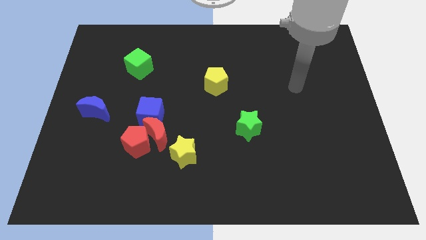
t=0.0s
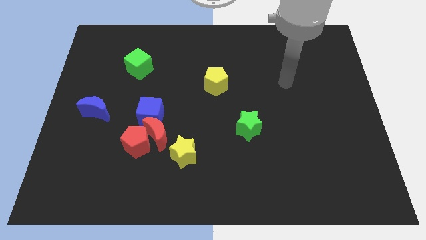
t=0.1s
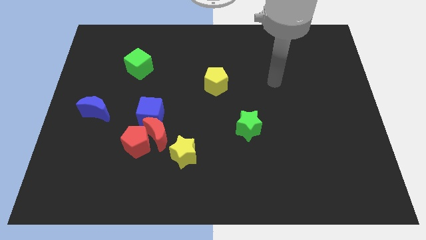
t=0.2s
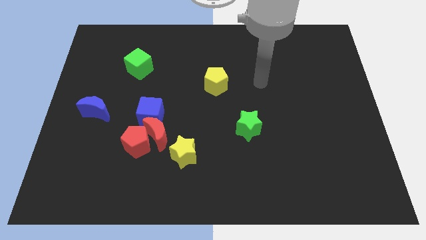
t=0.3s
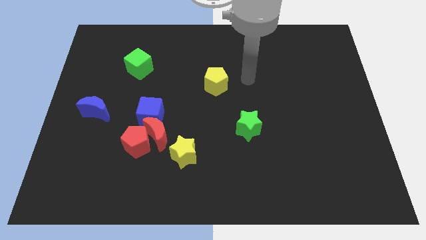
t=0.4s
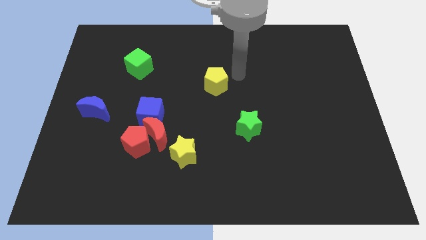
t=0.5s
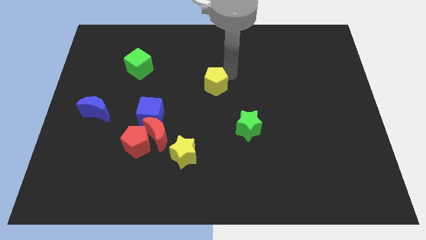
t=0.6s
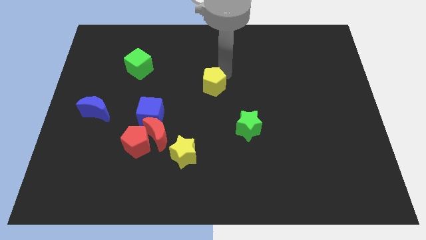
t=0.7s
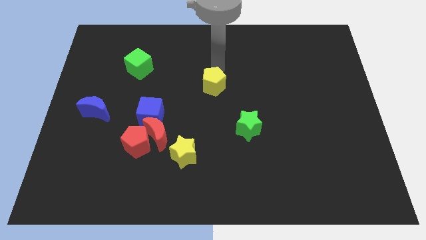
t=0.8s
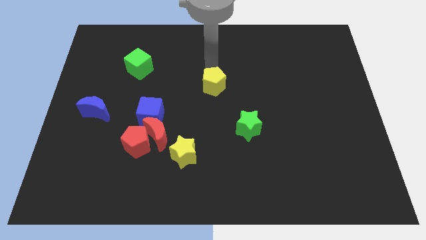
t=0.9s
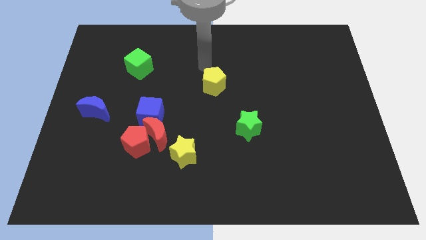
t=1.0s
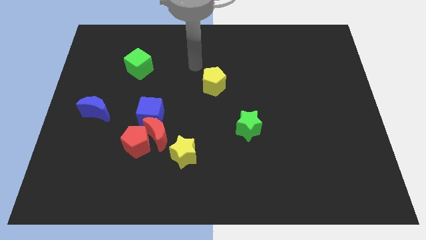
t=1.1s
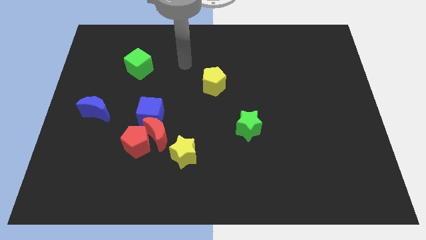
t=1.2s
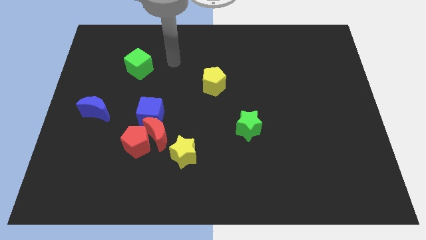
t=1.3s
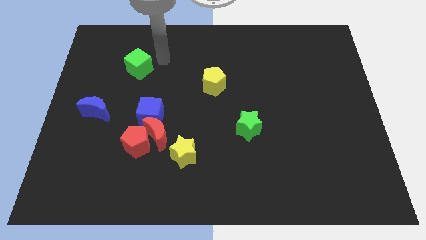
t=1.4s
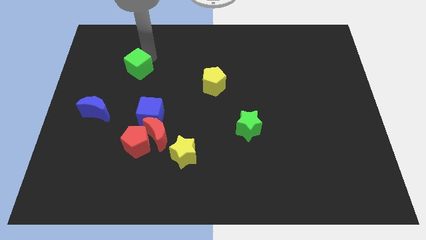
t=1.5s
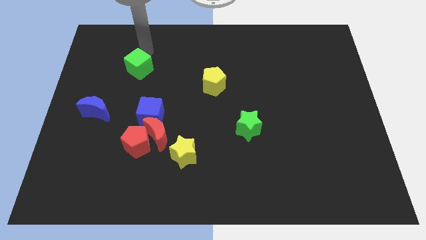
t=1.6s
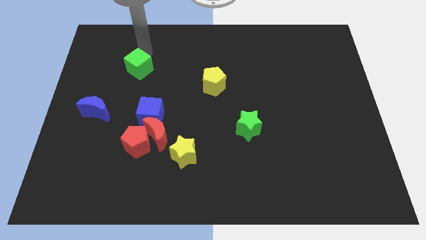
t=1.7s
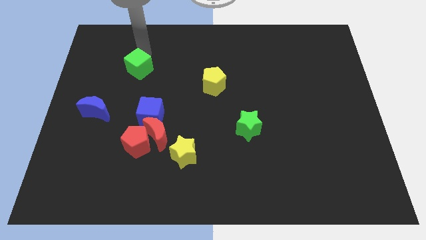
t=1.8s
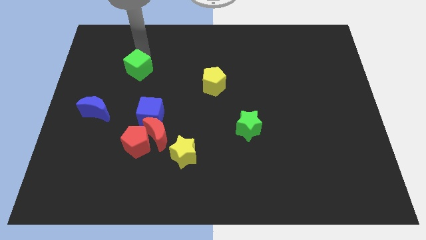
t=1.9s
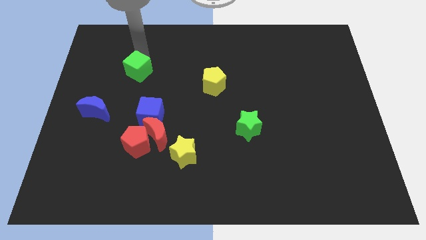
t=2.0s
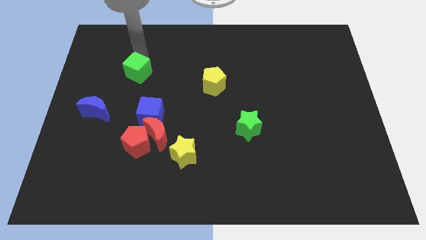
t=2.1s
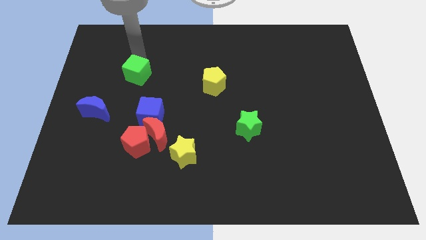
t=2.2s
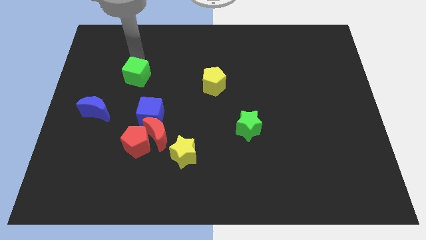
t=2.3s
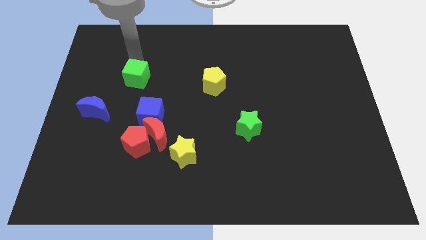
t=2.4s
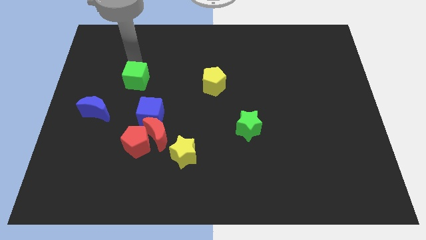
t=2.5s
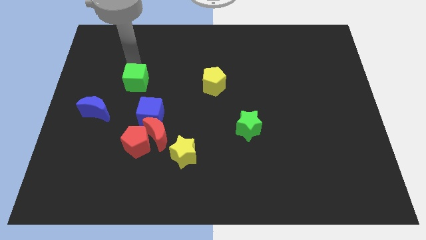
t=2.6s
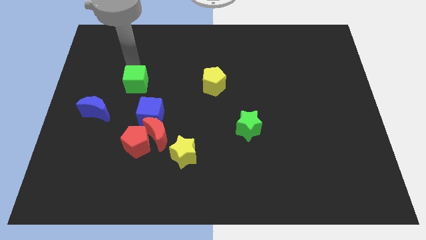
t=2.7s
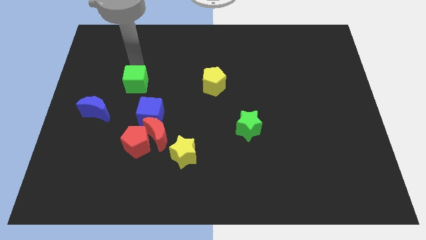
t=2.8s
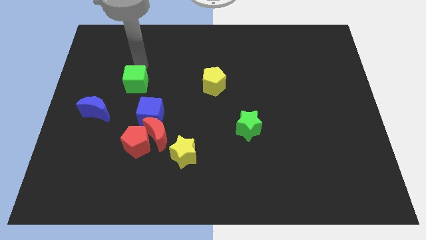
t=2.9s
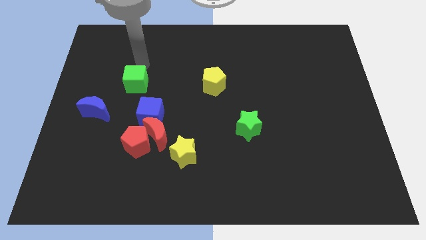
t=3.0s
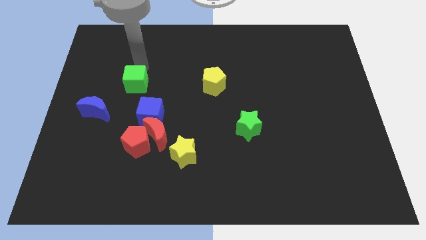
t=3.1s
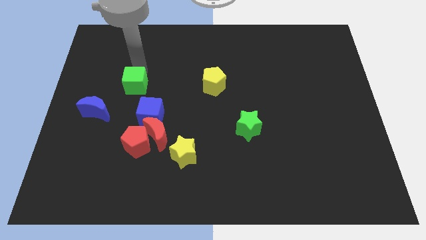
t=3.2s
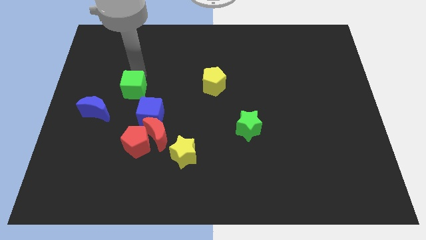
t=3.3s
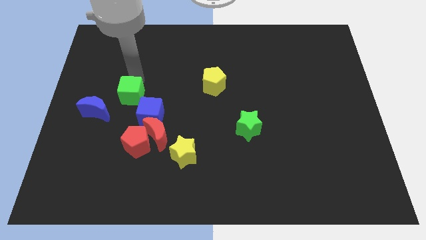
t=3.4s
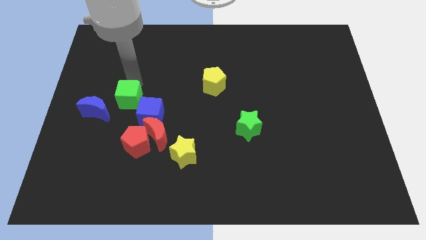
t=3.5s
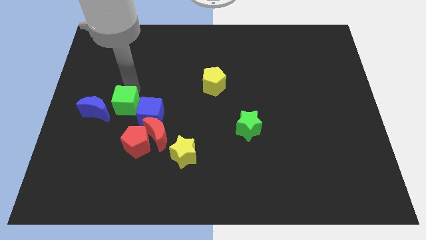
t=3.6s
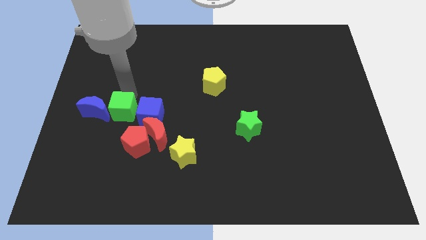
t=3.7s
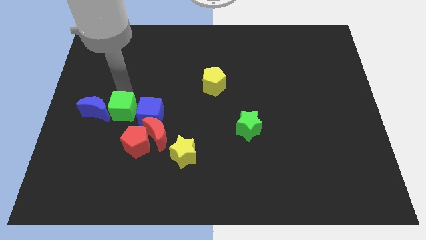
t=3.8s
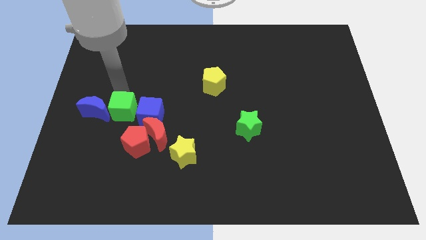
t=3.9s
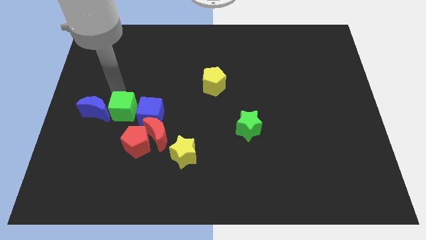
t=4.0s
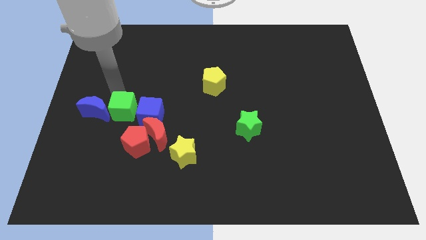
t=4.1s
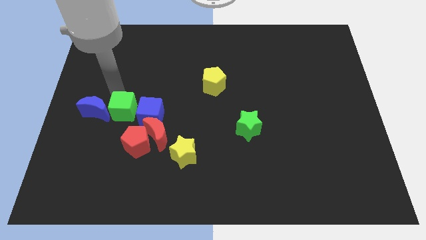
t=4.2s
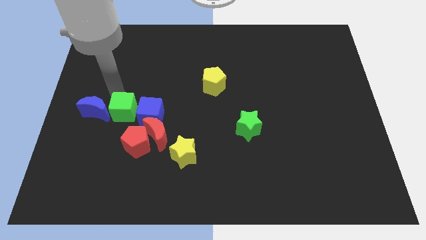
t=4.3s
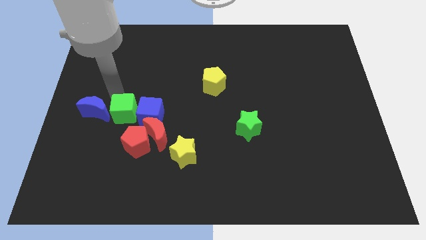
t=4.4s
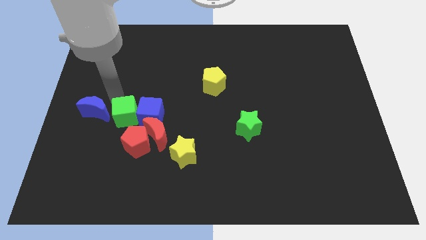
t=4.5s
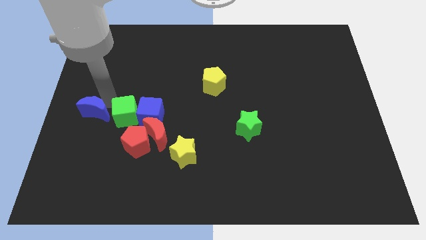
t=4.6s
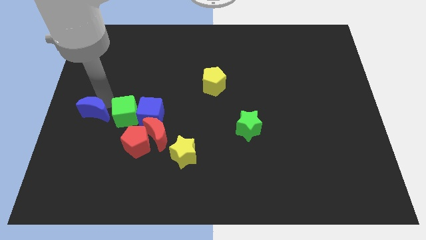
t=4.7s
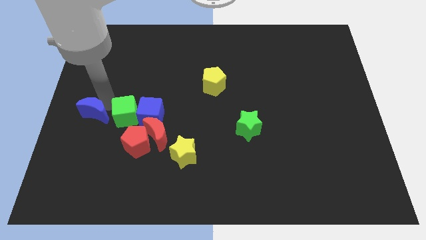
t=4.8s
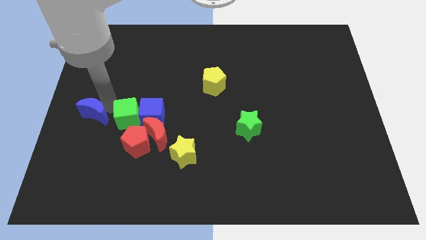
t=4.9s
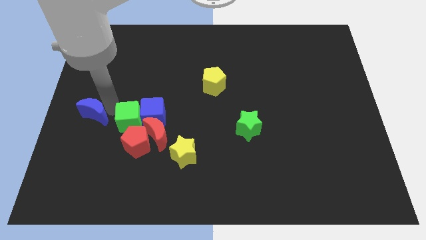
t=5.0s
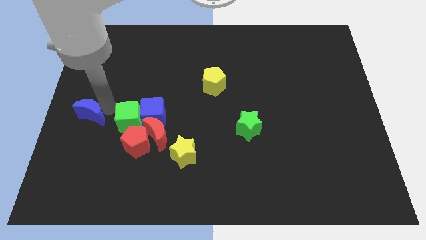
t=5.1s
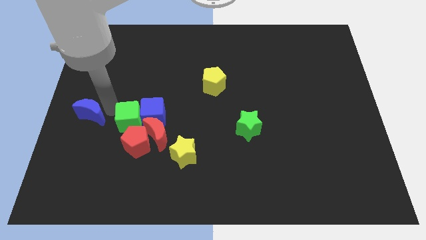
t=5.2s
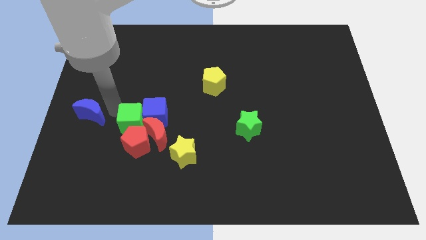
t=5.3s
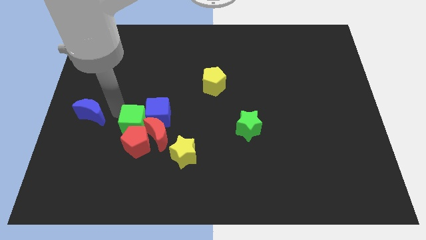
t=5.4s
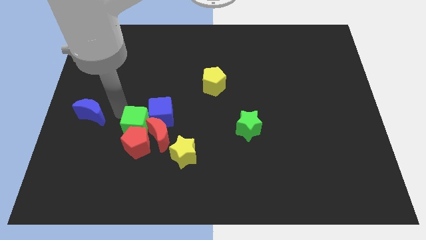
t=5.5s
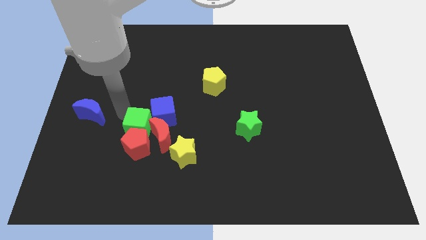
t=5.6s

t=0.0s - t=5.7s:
slide the green cube to the red moon

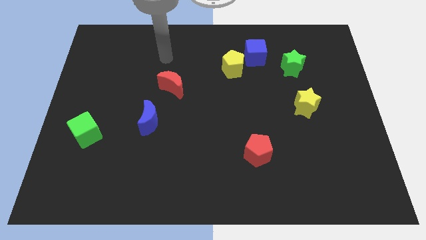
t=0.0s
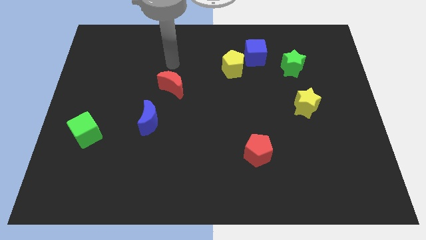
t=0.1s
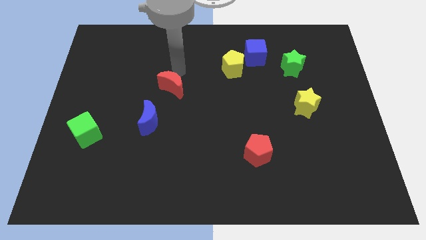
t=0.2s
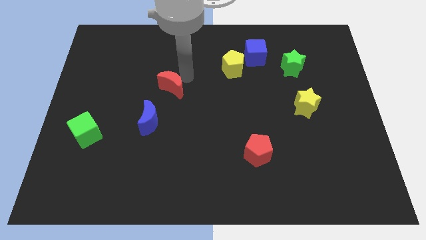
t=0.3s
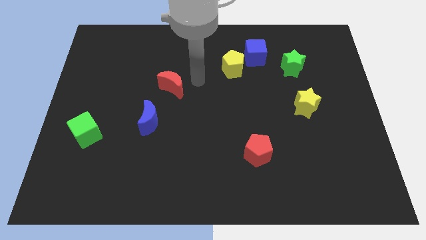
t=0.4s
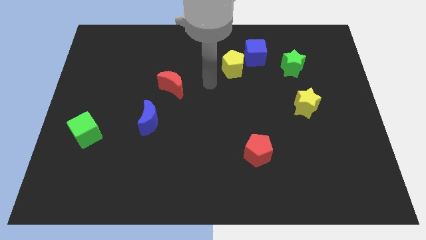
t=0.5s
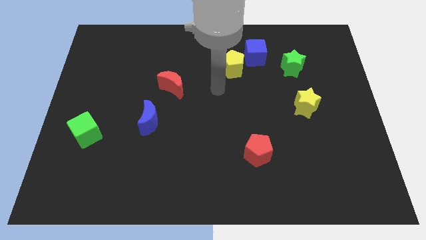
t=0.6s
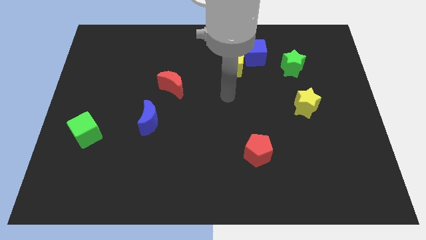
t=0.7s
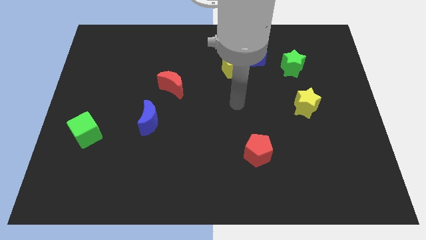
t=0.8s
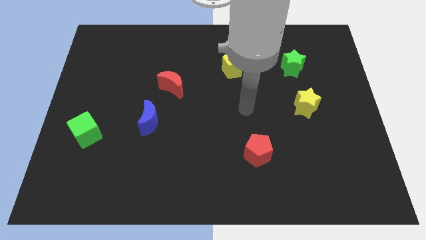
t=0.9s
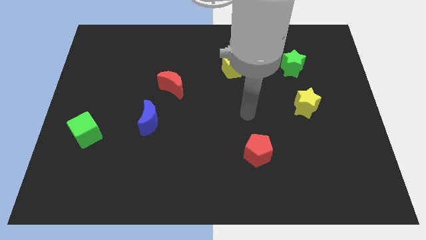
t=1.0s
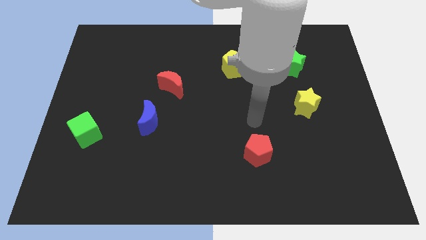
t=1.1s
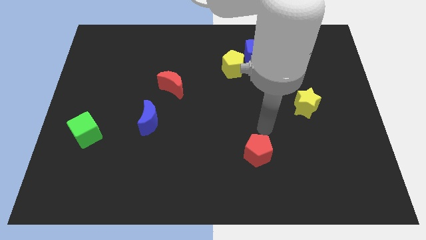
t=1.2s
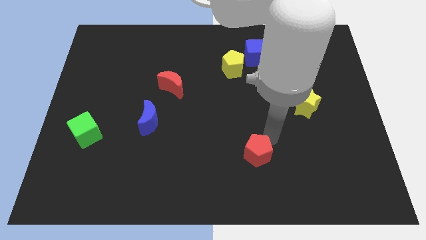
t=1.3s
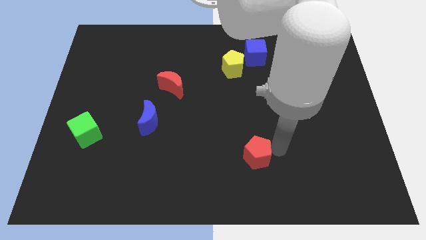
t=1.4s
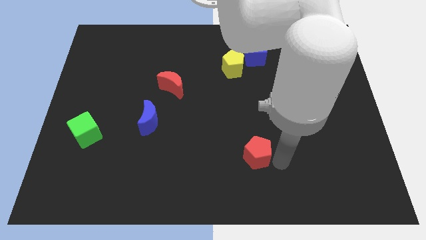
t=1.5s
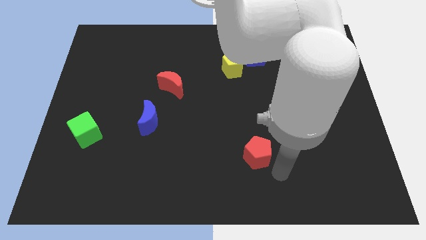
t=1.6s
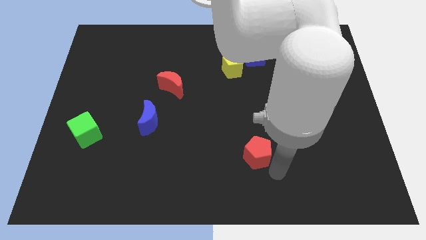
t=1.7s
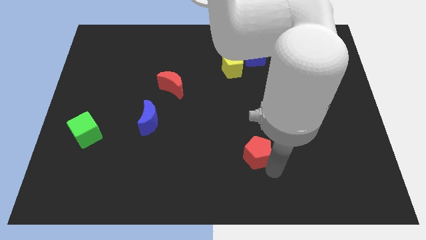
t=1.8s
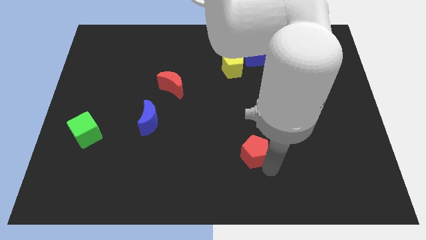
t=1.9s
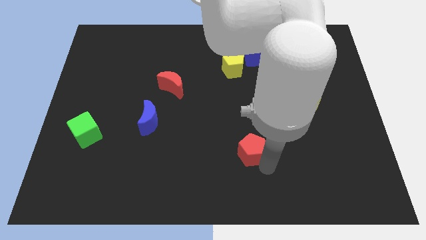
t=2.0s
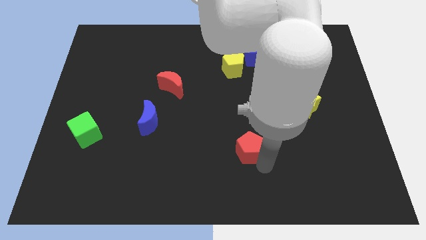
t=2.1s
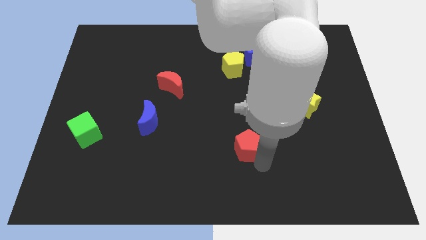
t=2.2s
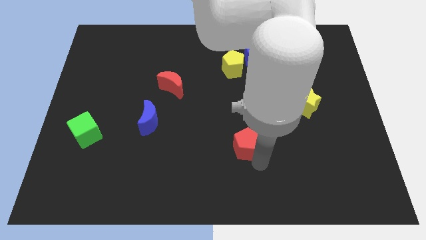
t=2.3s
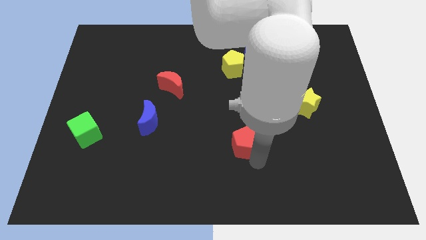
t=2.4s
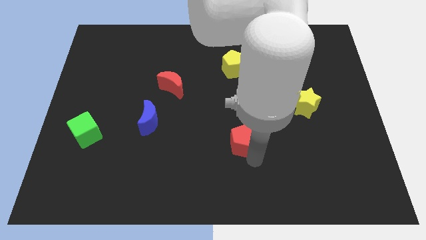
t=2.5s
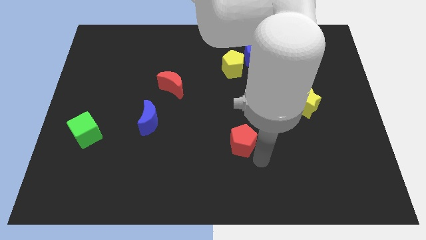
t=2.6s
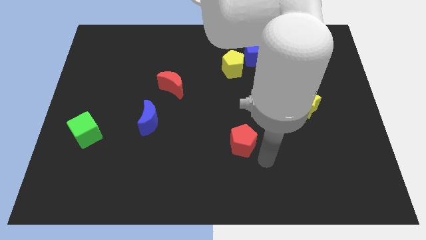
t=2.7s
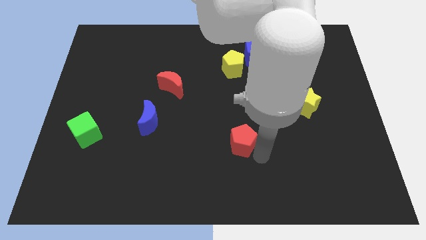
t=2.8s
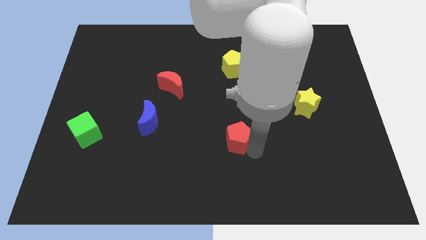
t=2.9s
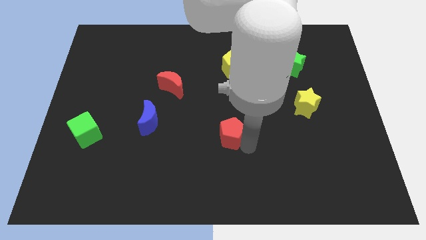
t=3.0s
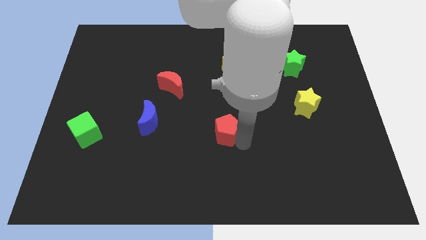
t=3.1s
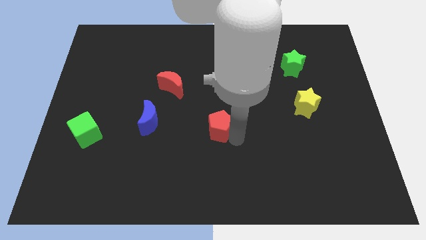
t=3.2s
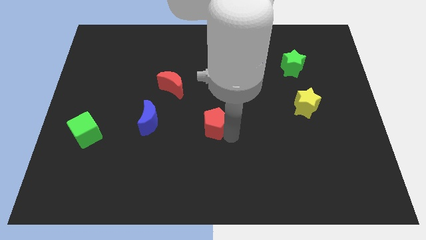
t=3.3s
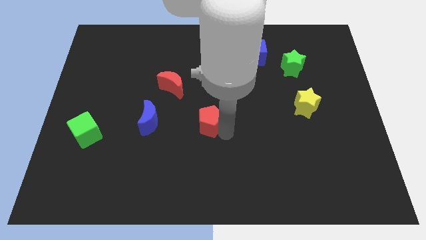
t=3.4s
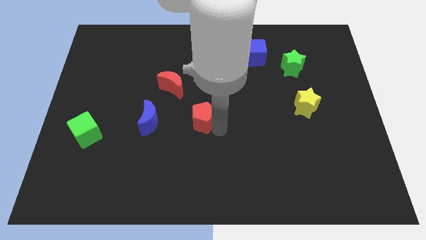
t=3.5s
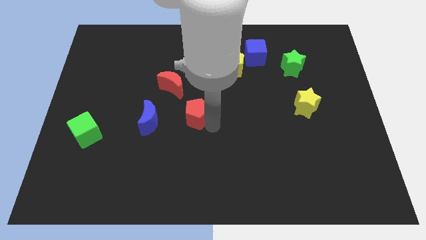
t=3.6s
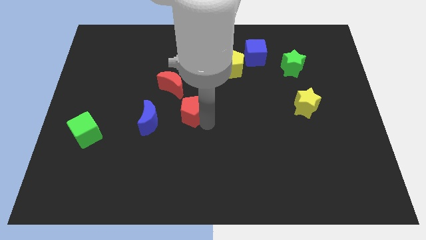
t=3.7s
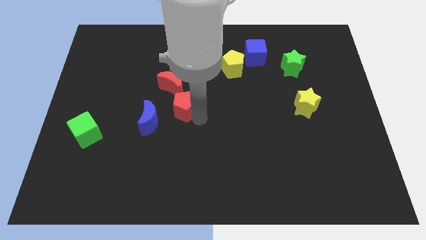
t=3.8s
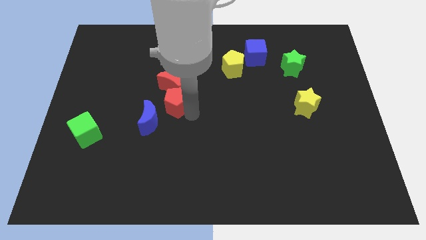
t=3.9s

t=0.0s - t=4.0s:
slide the red pentagon towards the red moon
